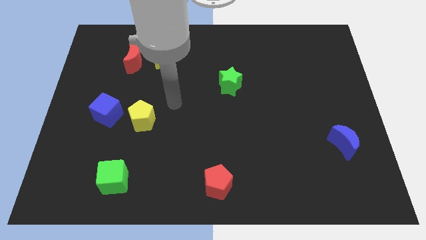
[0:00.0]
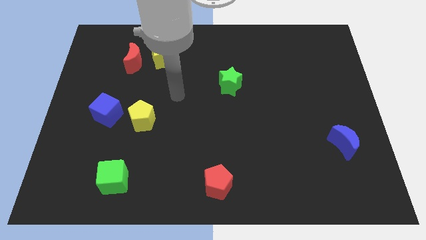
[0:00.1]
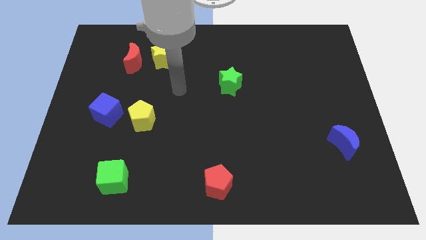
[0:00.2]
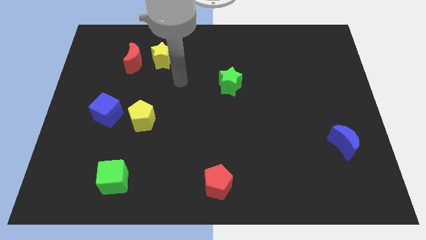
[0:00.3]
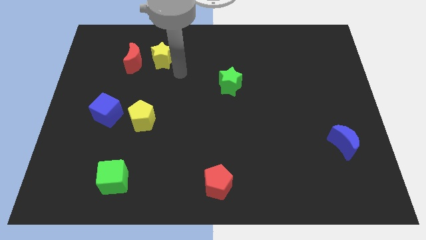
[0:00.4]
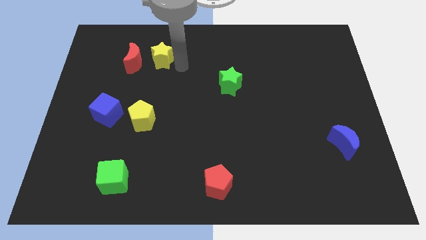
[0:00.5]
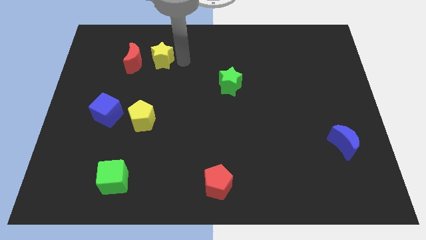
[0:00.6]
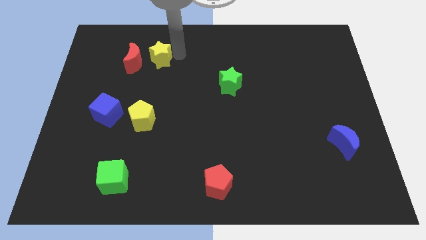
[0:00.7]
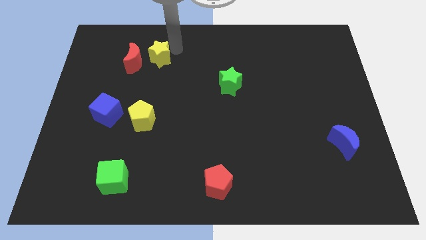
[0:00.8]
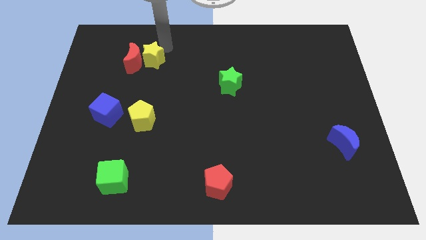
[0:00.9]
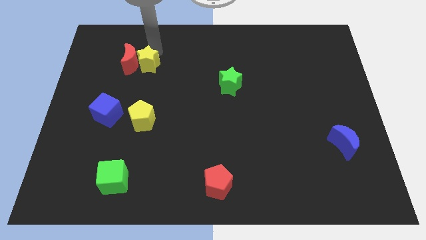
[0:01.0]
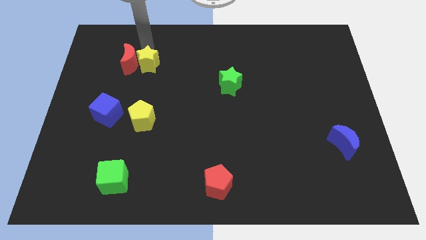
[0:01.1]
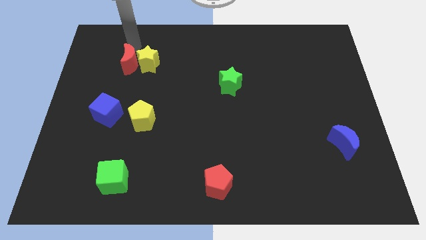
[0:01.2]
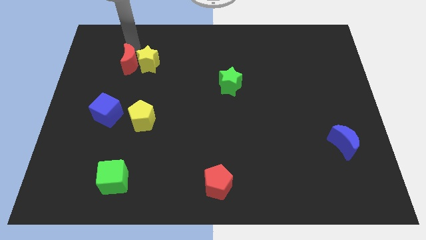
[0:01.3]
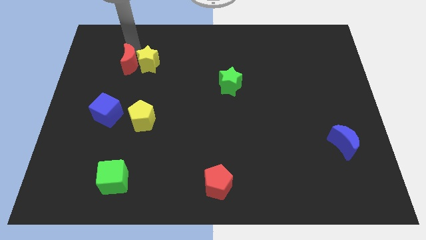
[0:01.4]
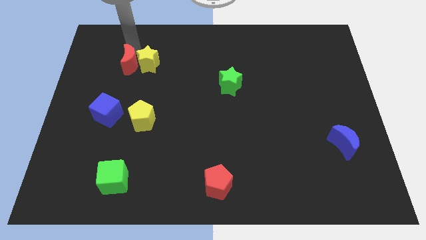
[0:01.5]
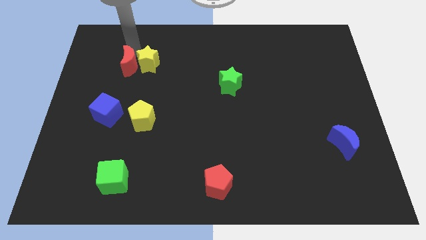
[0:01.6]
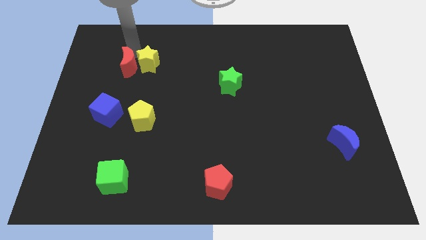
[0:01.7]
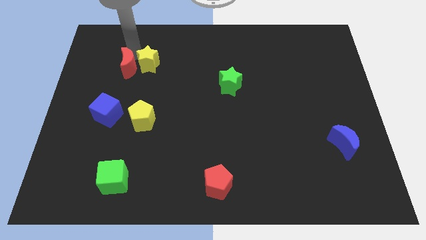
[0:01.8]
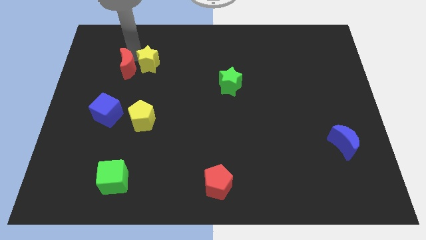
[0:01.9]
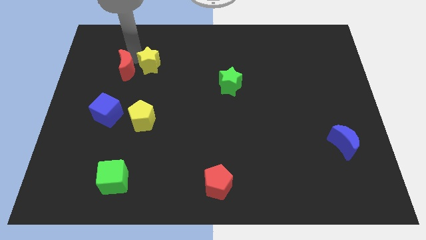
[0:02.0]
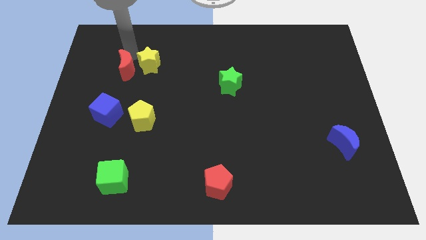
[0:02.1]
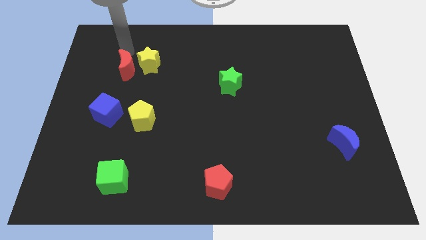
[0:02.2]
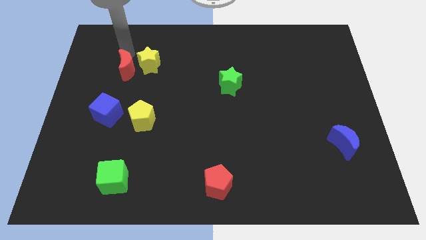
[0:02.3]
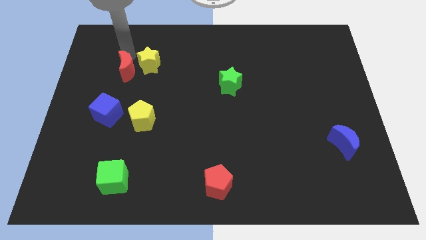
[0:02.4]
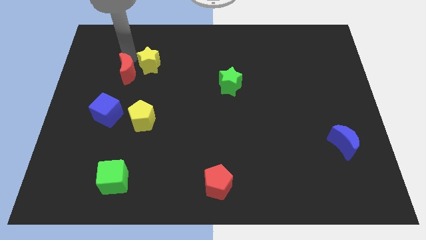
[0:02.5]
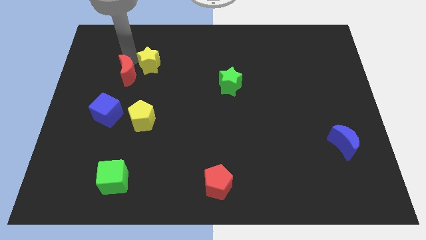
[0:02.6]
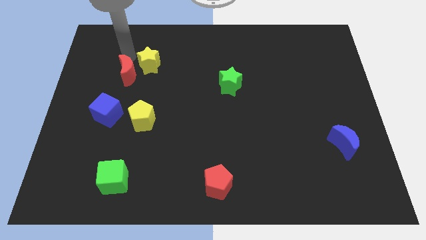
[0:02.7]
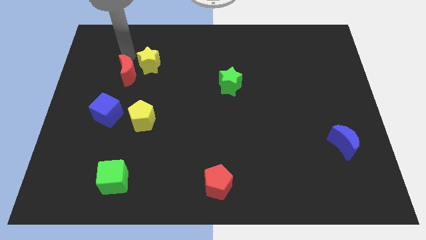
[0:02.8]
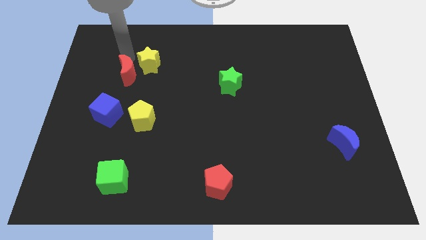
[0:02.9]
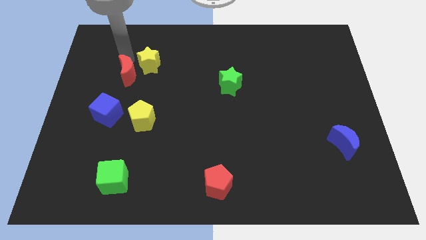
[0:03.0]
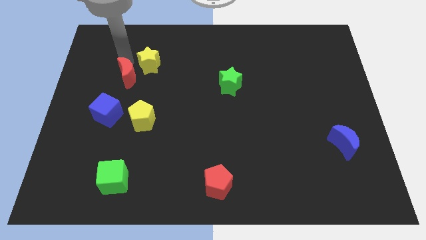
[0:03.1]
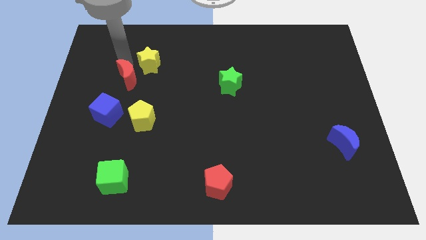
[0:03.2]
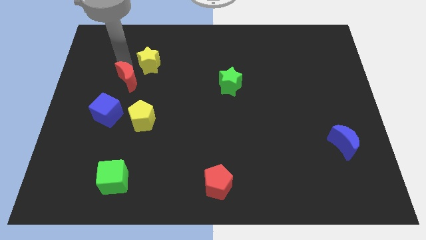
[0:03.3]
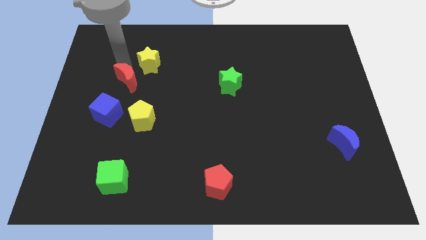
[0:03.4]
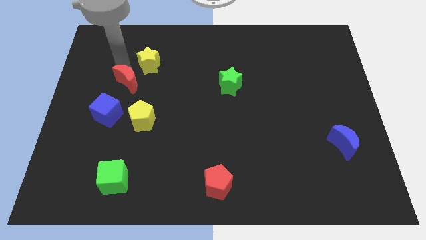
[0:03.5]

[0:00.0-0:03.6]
slightly slide the red moon down

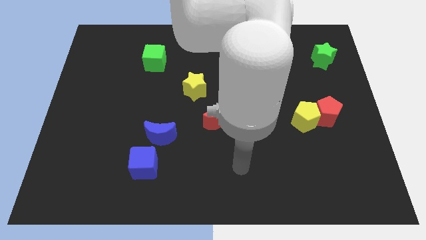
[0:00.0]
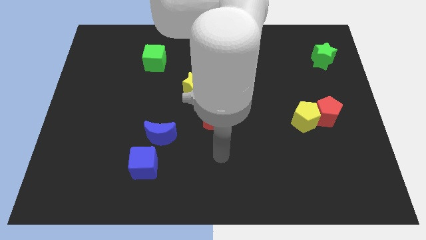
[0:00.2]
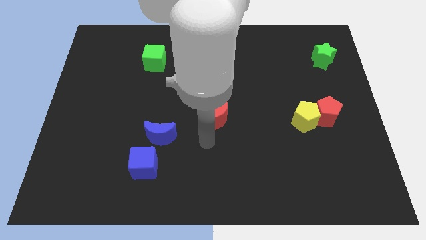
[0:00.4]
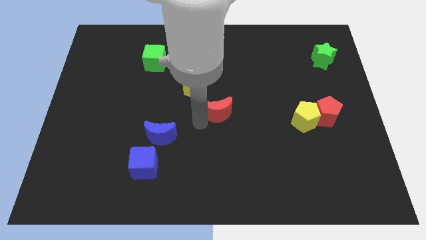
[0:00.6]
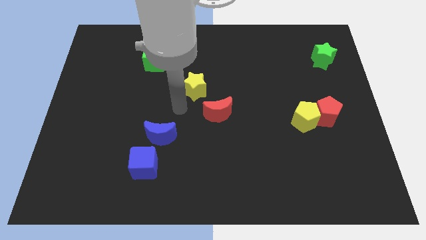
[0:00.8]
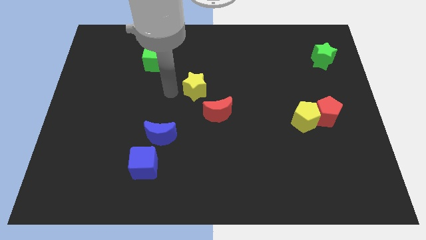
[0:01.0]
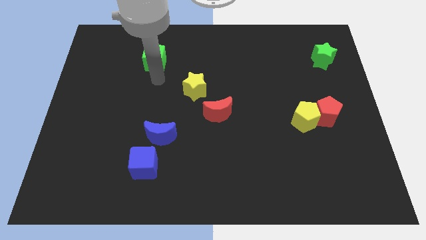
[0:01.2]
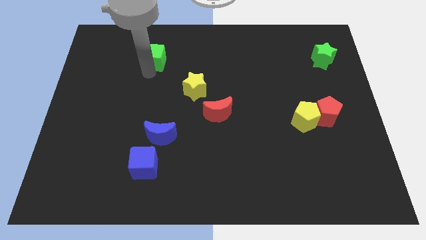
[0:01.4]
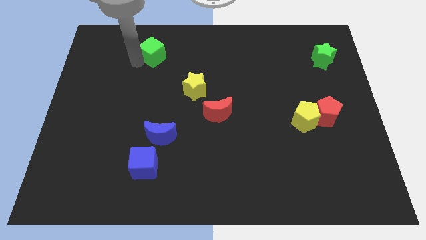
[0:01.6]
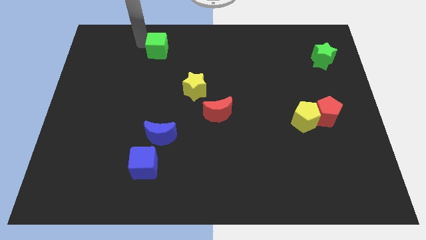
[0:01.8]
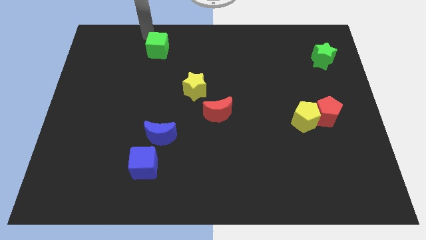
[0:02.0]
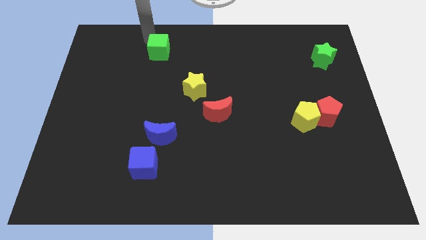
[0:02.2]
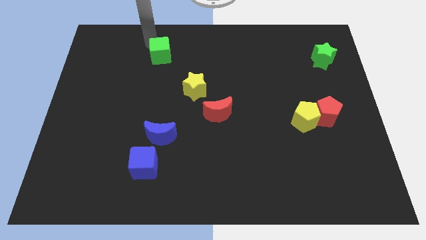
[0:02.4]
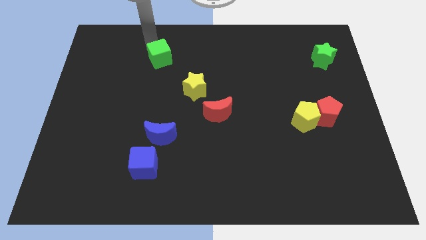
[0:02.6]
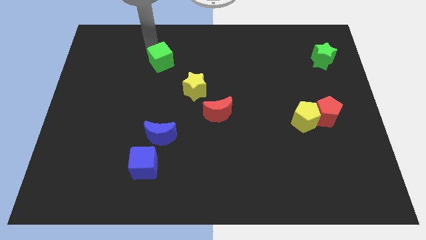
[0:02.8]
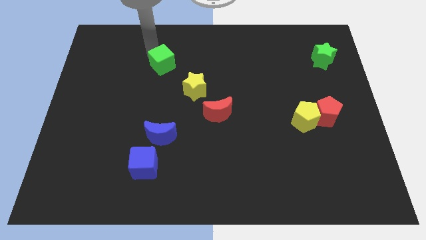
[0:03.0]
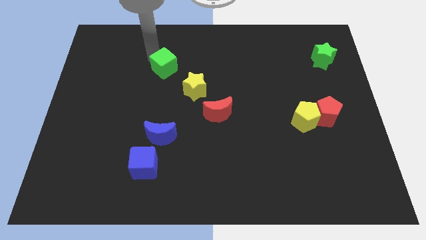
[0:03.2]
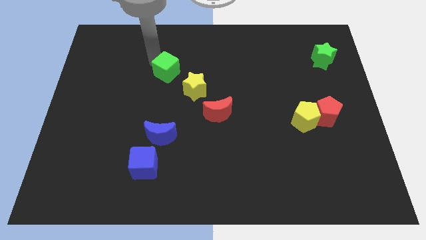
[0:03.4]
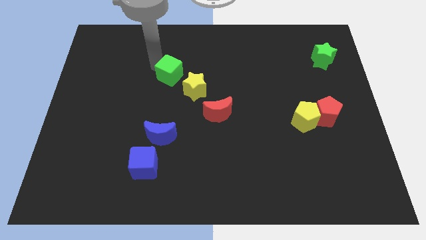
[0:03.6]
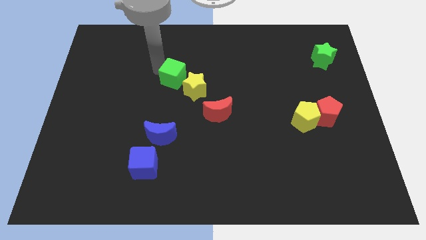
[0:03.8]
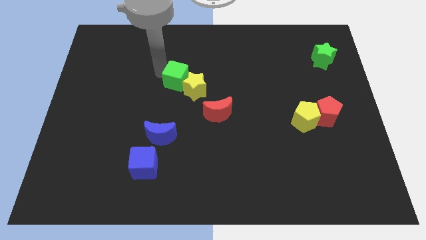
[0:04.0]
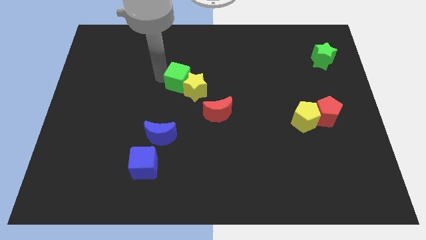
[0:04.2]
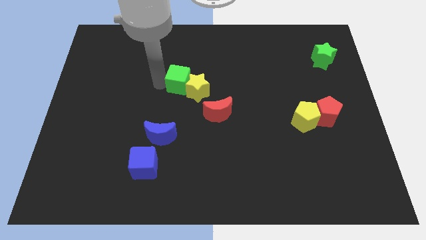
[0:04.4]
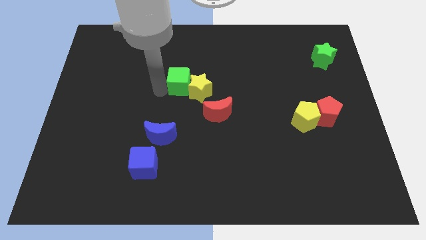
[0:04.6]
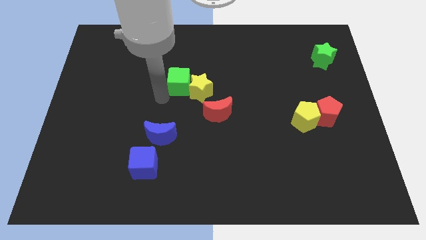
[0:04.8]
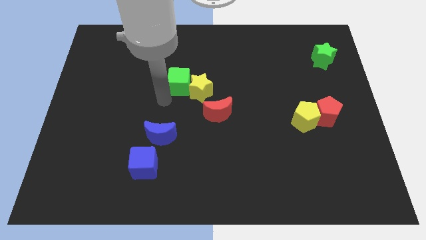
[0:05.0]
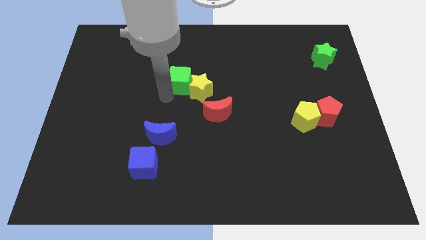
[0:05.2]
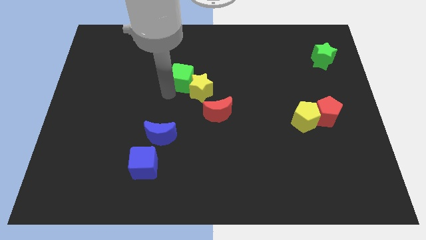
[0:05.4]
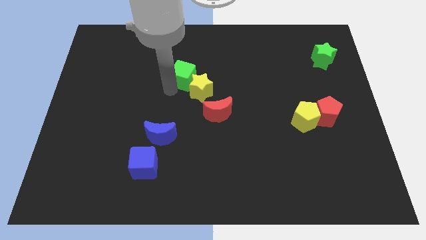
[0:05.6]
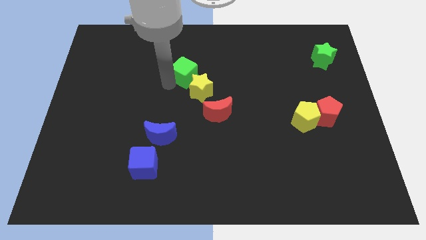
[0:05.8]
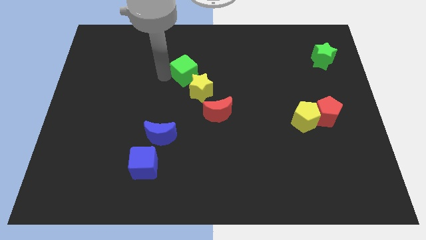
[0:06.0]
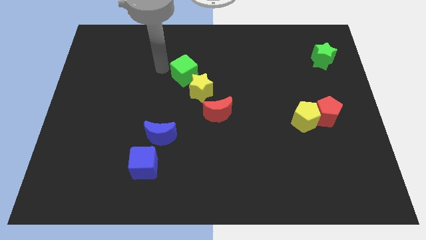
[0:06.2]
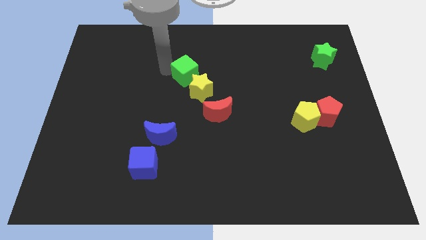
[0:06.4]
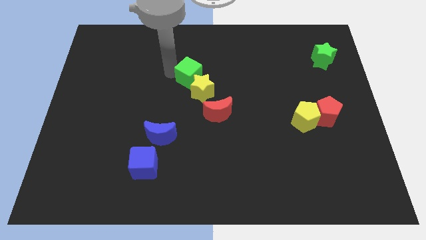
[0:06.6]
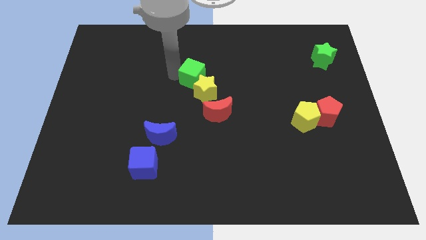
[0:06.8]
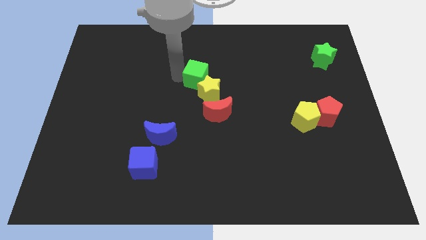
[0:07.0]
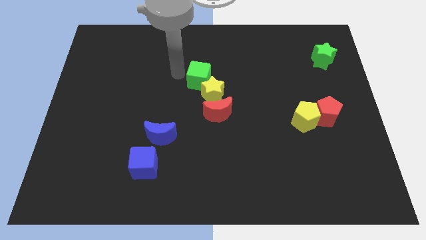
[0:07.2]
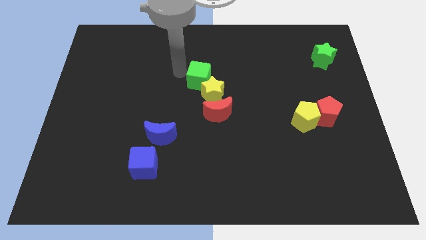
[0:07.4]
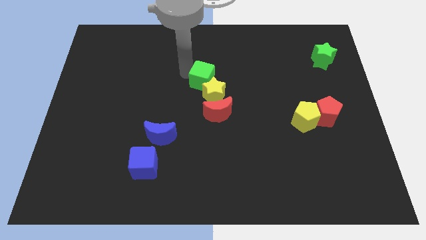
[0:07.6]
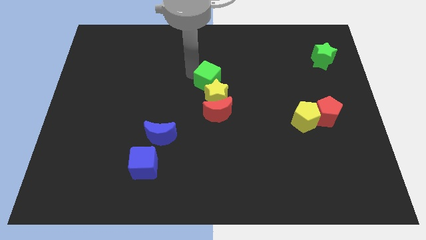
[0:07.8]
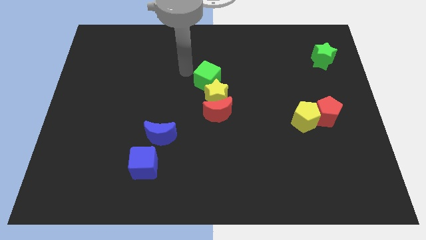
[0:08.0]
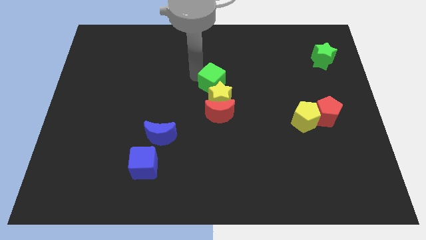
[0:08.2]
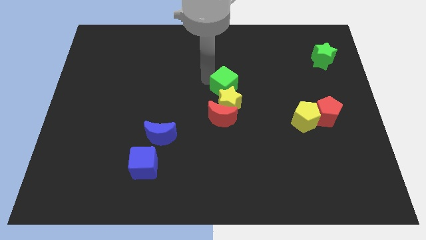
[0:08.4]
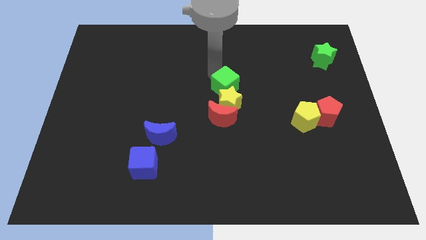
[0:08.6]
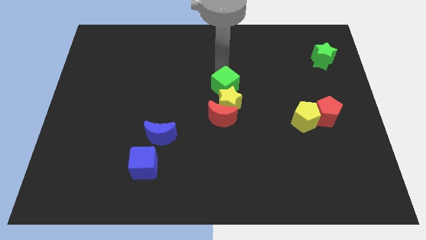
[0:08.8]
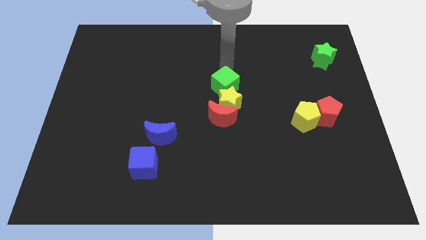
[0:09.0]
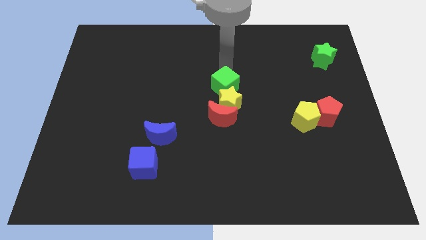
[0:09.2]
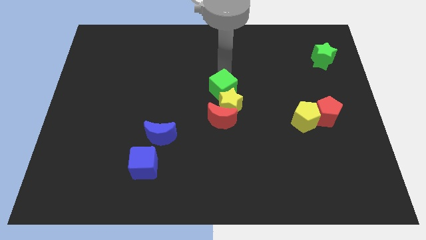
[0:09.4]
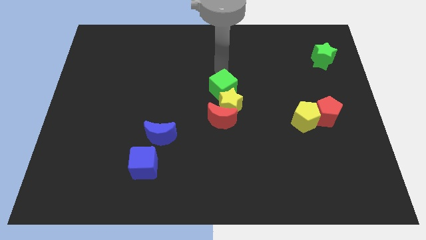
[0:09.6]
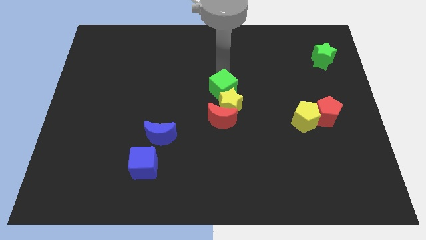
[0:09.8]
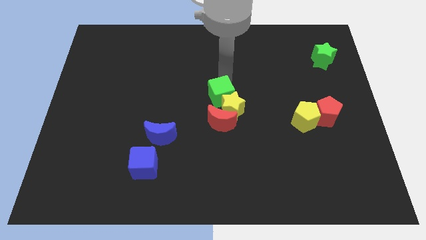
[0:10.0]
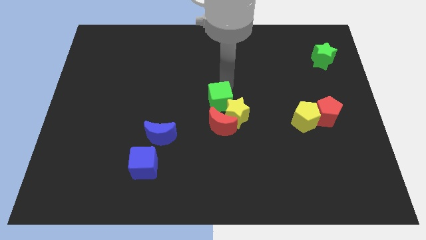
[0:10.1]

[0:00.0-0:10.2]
push the green cube downwards and to the right diagonally
